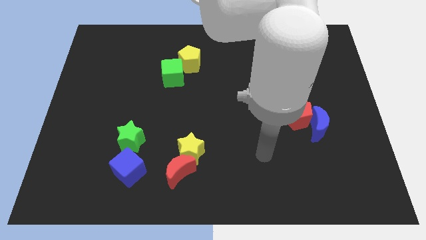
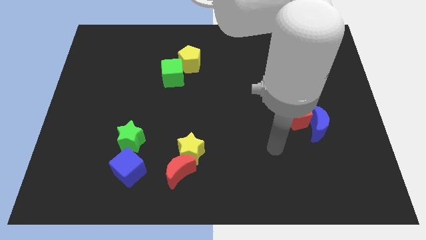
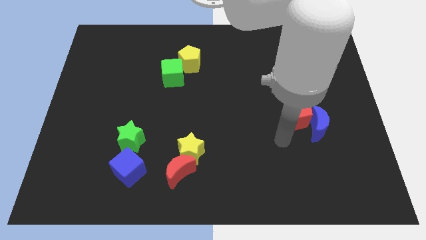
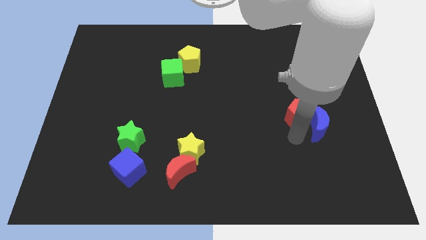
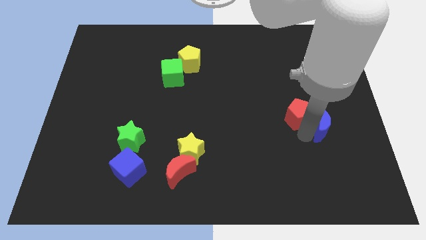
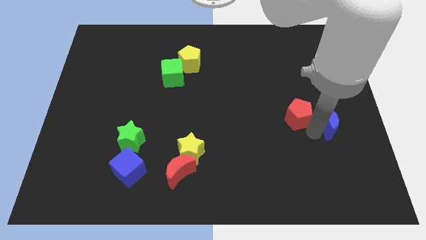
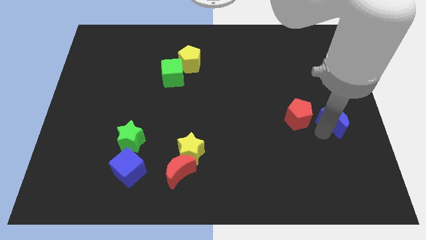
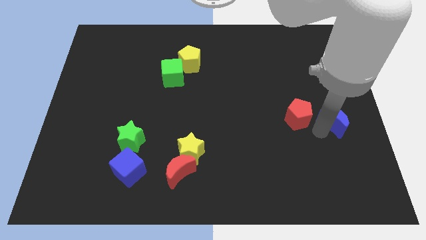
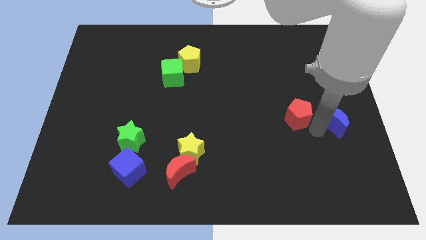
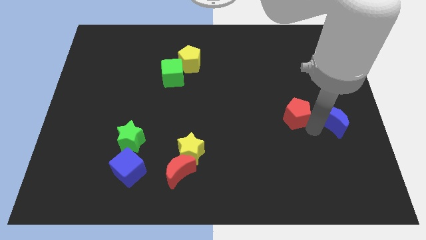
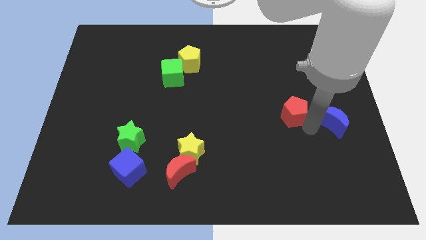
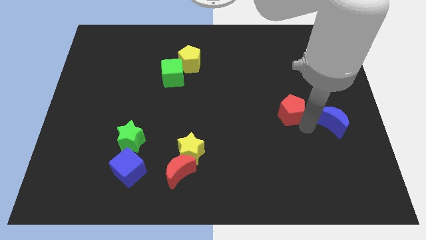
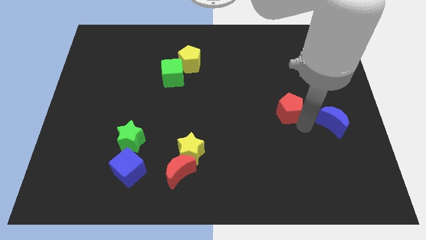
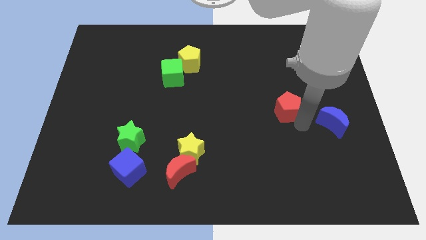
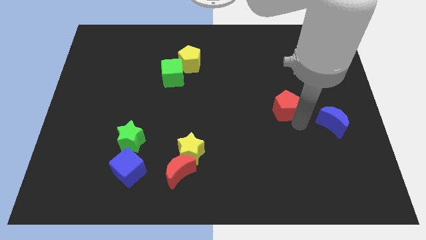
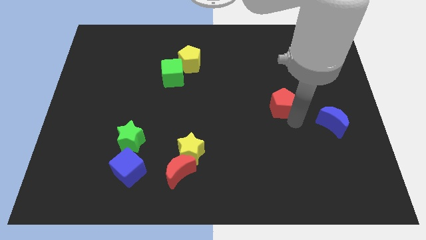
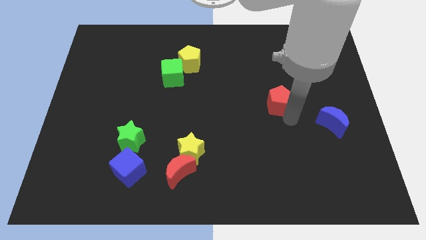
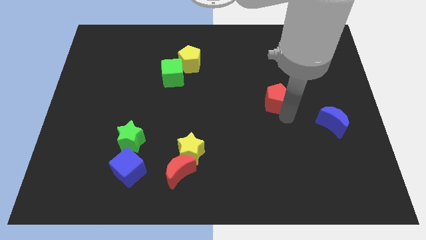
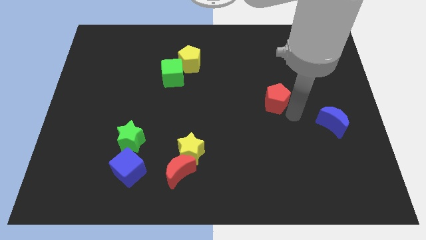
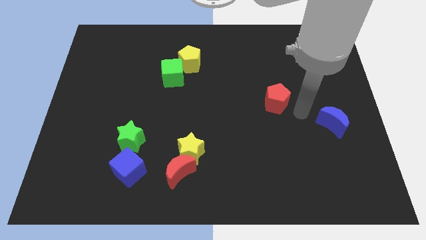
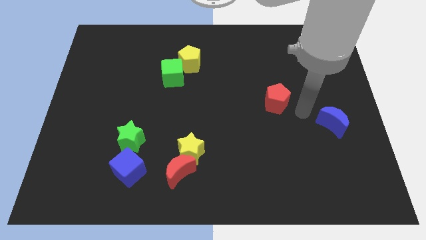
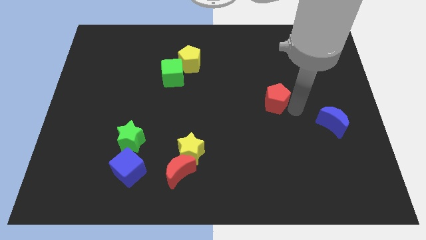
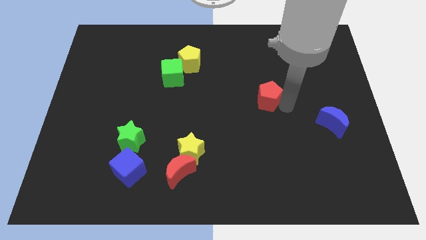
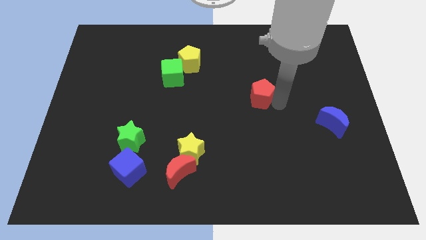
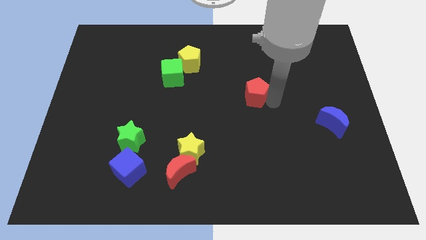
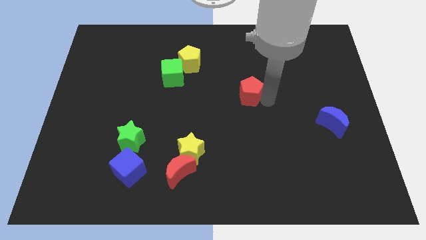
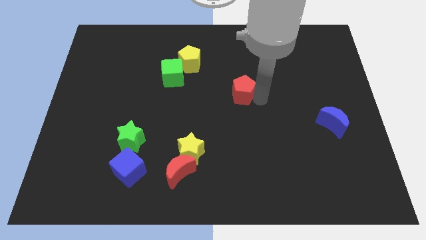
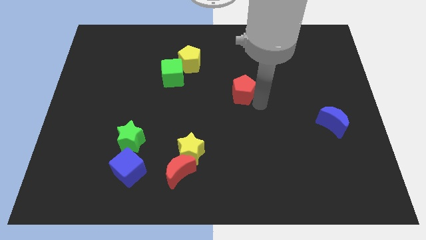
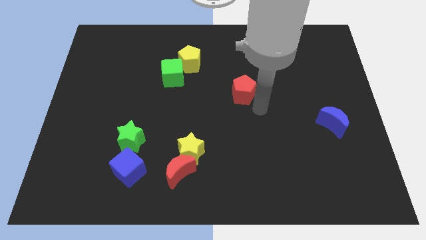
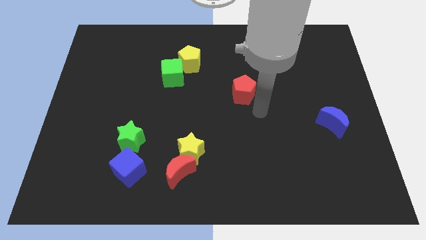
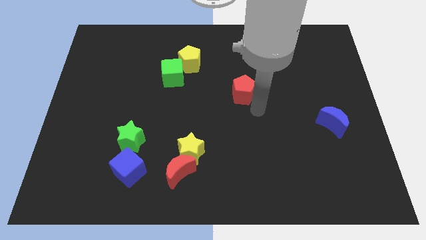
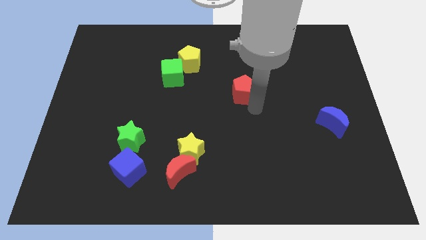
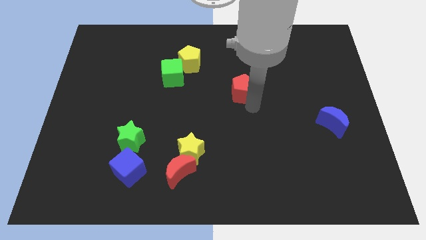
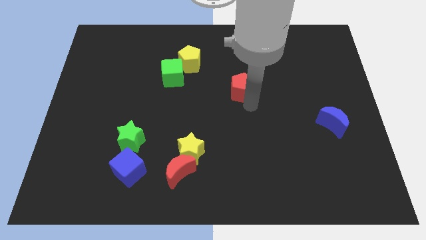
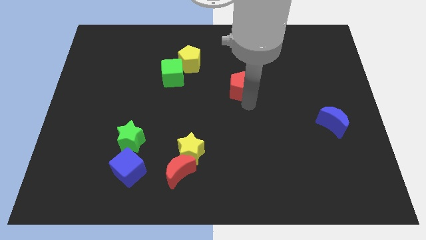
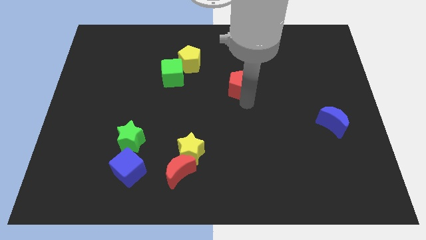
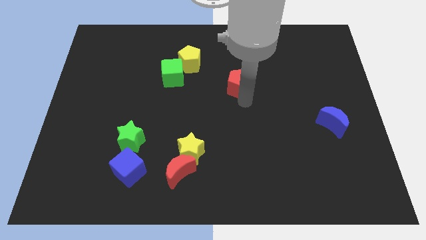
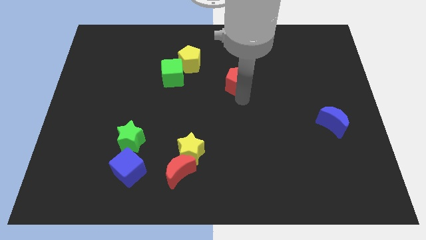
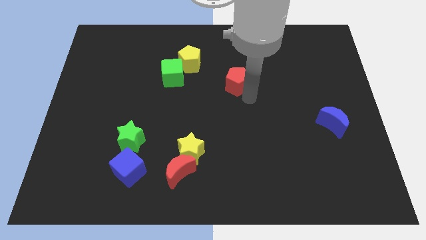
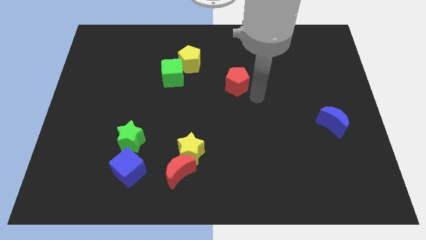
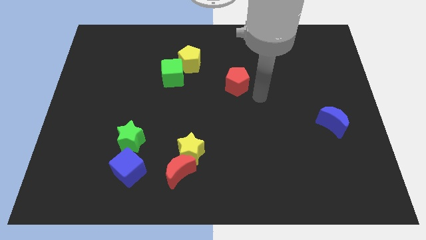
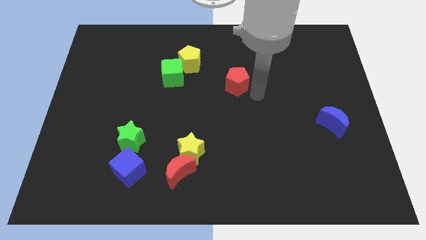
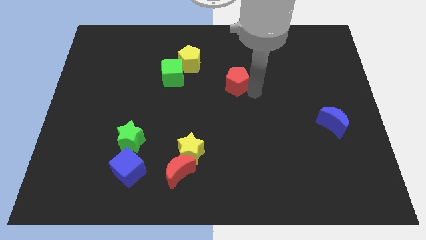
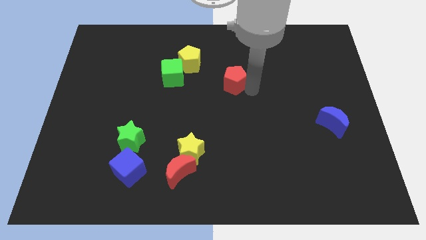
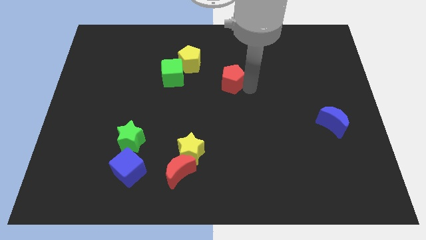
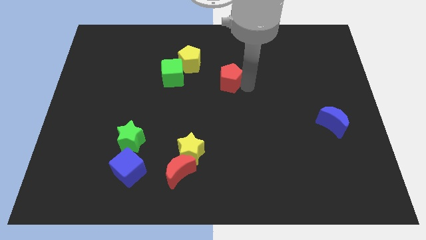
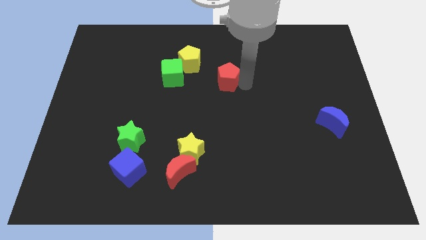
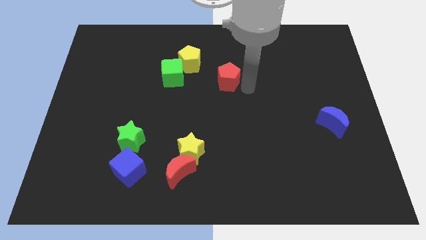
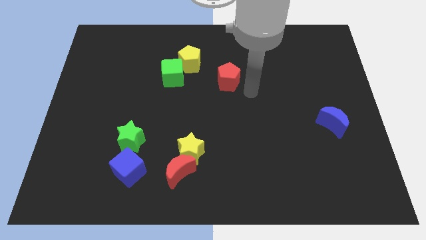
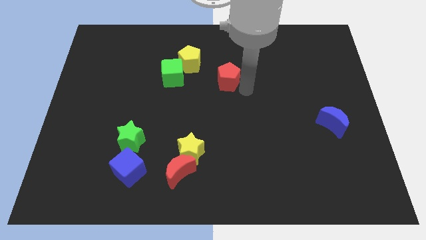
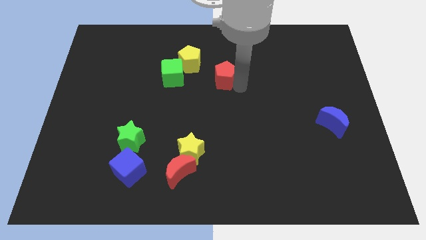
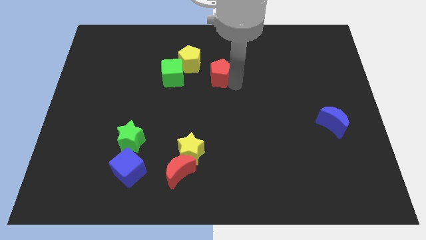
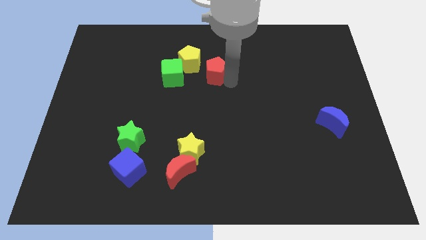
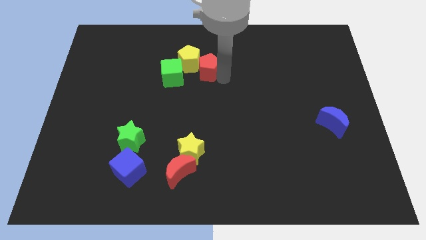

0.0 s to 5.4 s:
slide the red pentagon next to the yellow pentagon

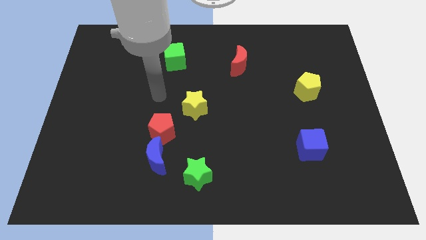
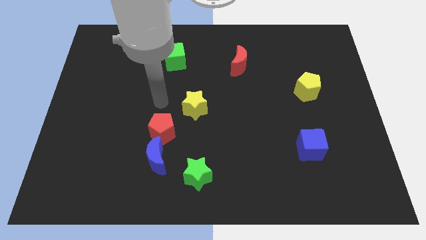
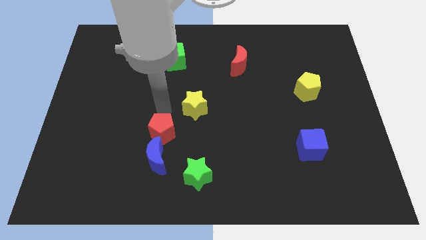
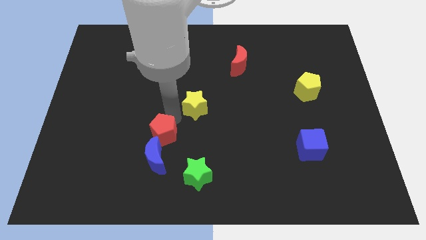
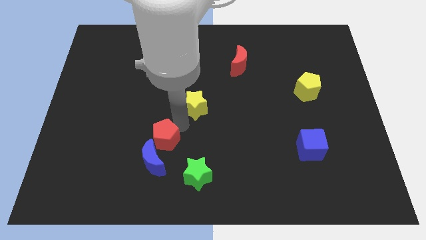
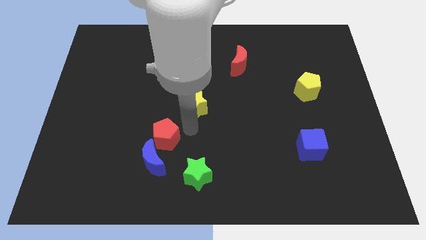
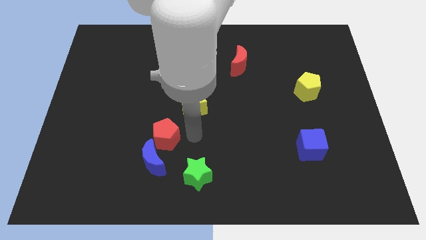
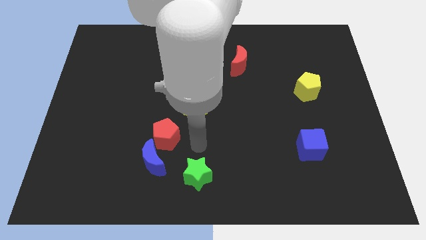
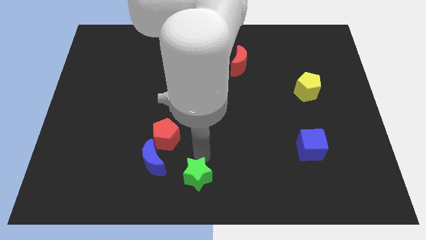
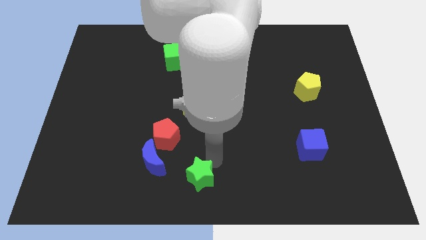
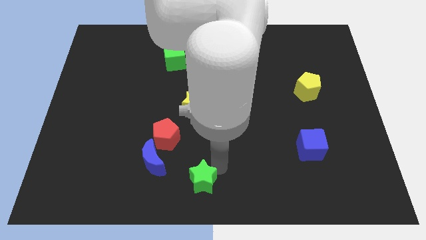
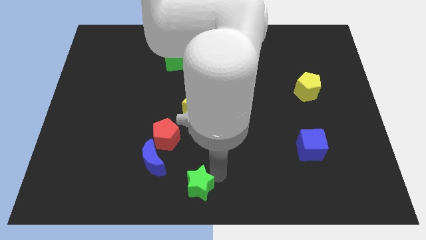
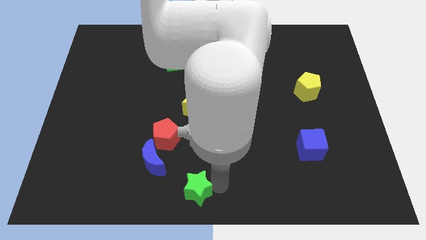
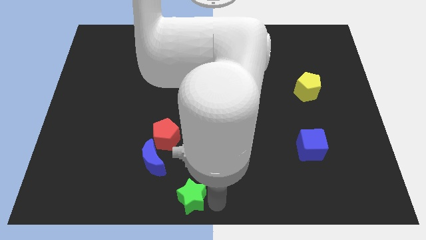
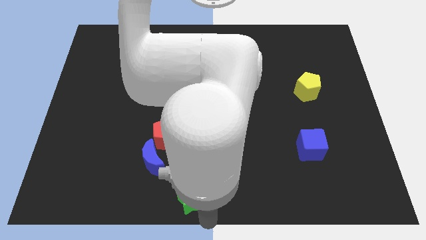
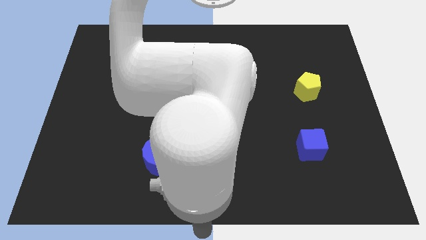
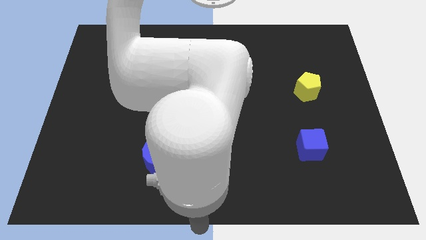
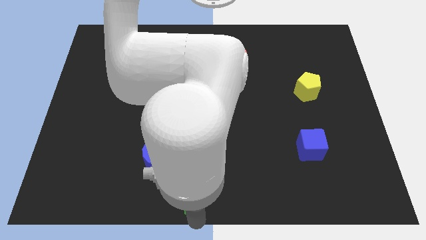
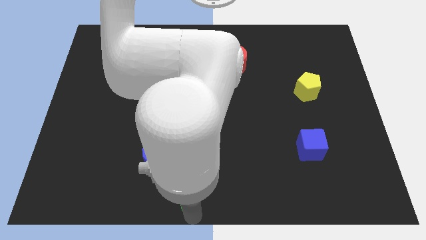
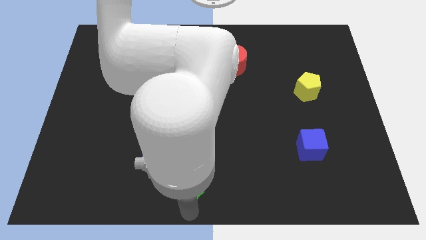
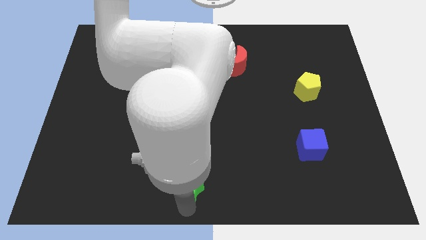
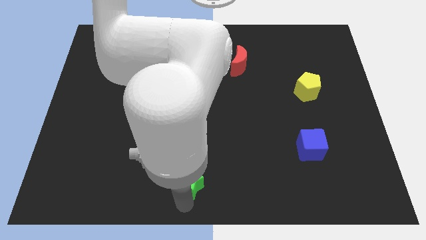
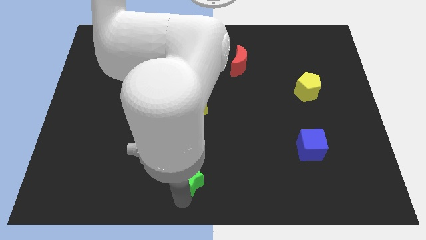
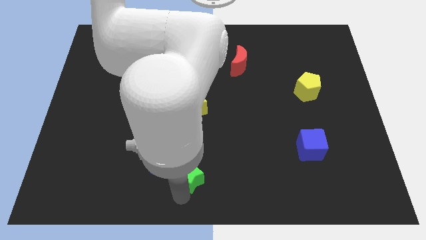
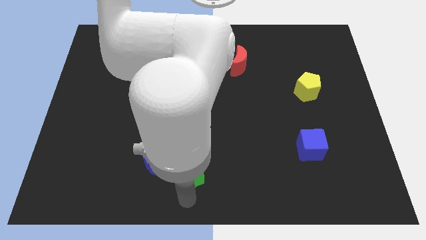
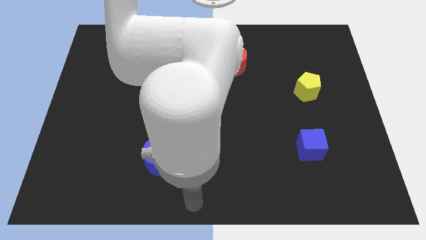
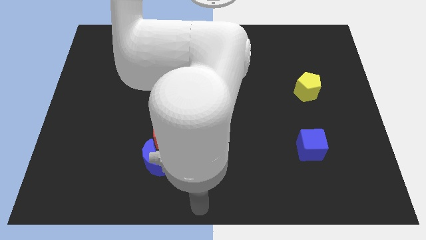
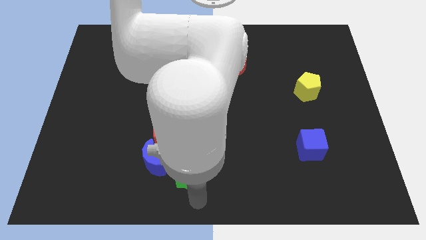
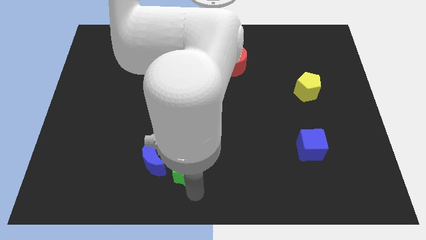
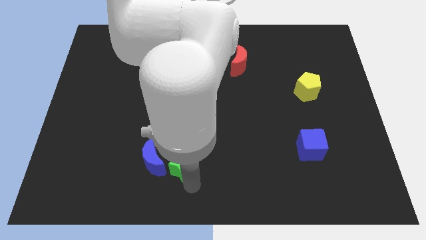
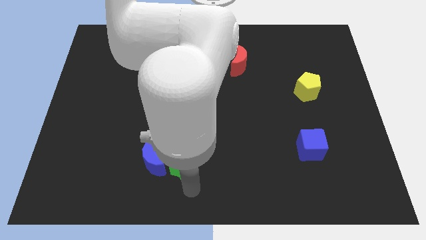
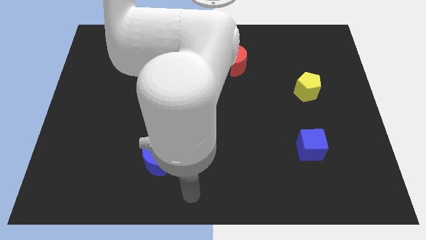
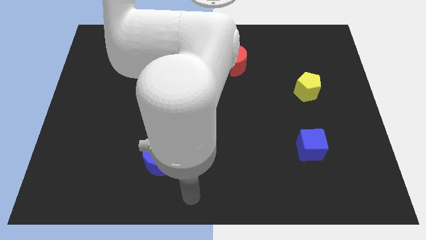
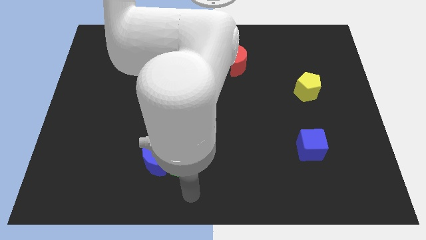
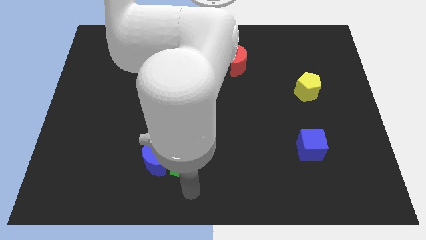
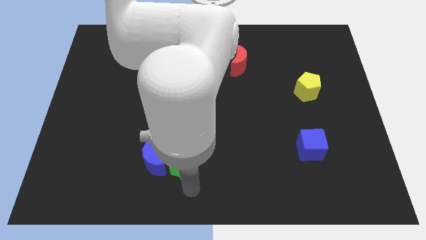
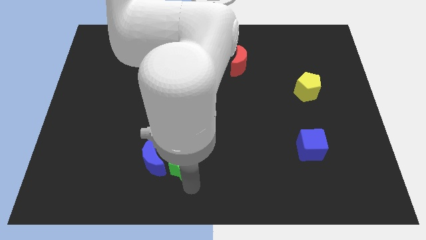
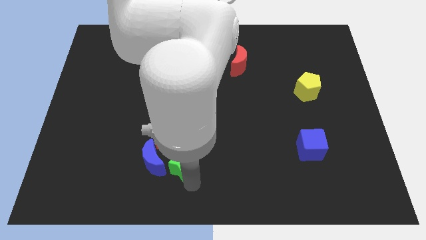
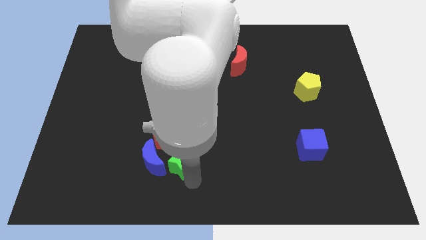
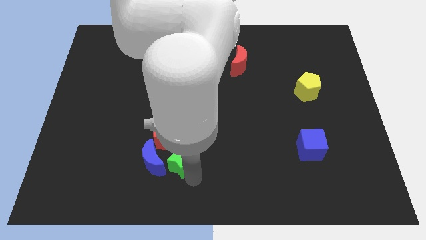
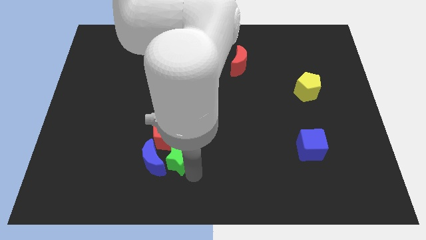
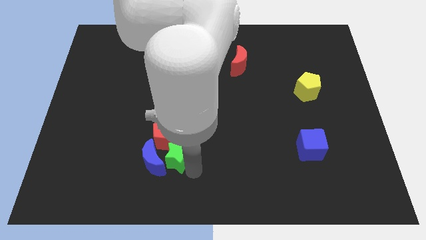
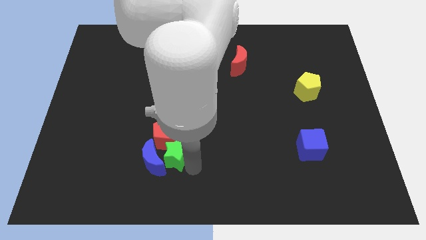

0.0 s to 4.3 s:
put the green star to the red pentagon
